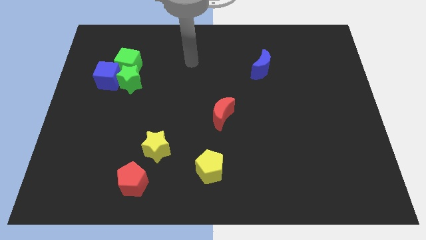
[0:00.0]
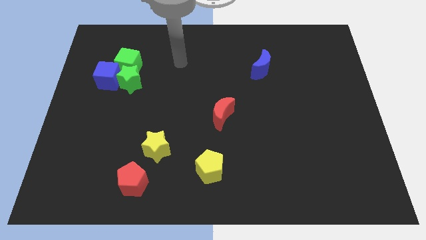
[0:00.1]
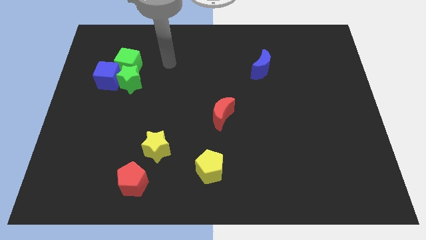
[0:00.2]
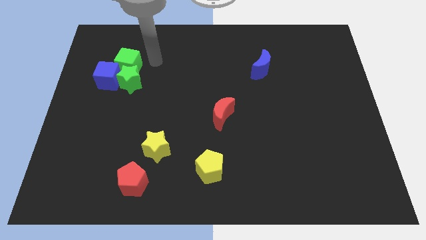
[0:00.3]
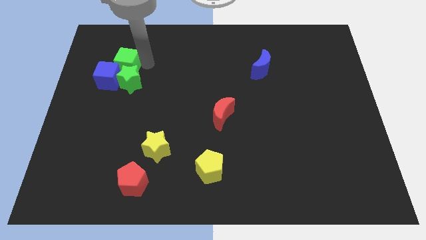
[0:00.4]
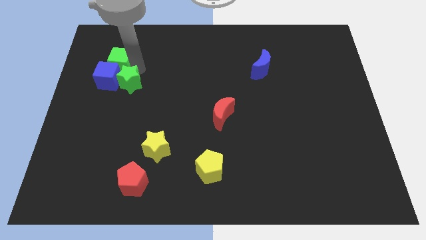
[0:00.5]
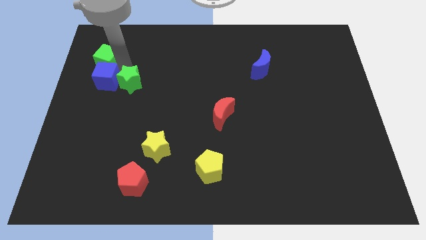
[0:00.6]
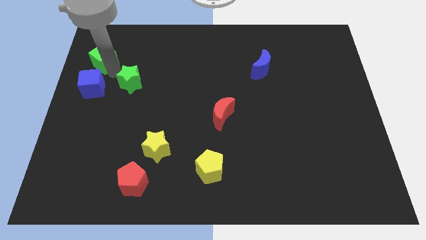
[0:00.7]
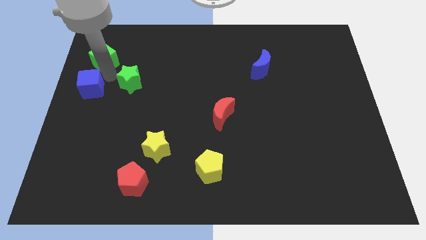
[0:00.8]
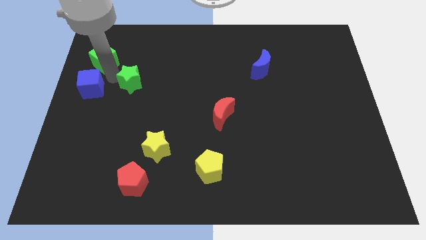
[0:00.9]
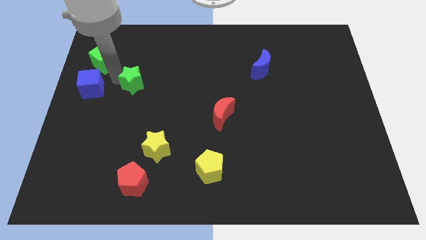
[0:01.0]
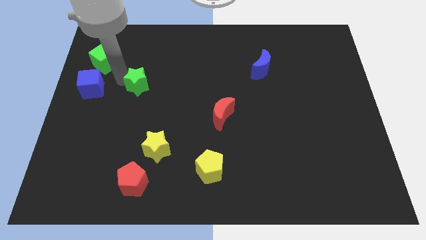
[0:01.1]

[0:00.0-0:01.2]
separate the green star from the green cube and blue cube

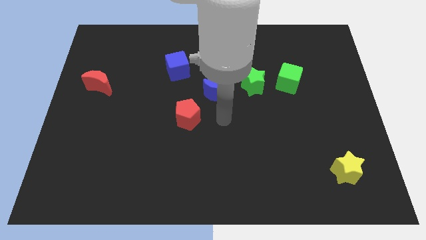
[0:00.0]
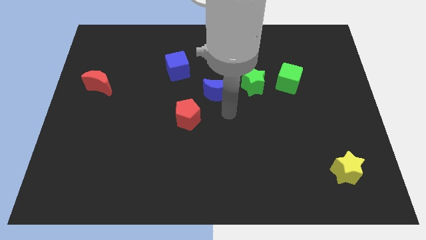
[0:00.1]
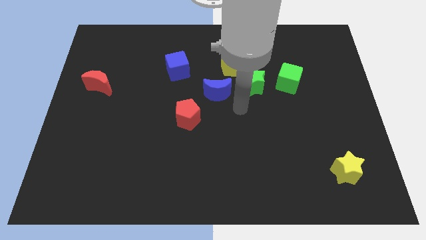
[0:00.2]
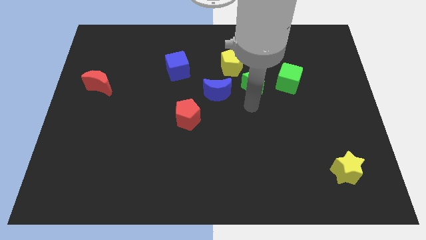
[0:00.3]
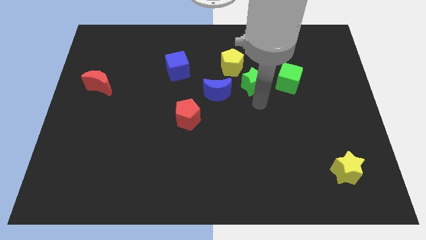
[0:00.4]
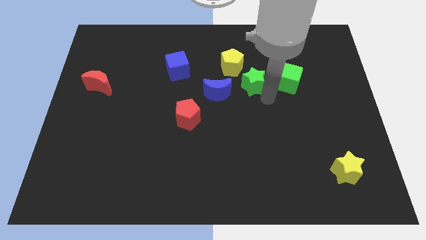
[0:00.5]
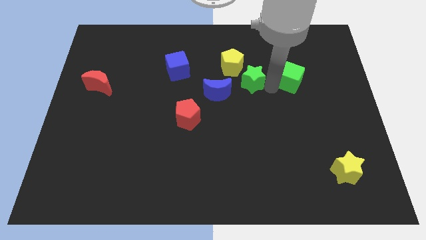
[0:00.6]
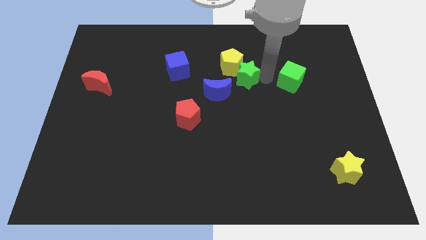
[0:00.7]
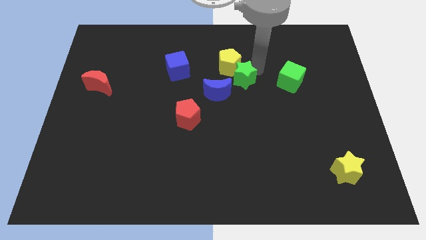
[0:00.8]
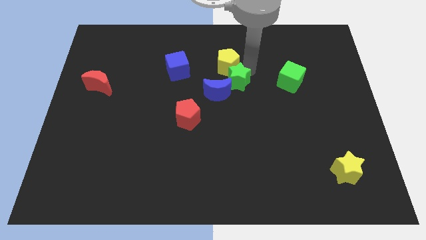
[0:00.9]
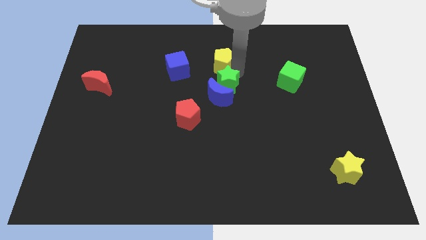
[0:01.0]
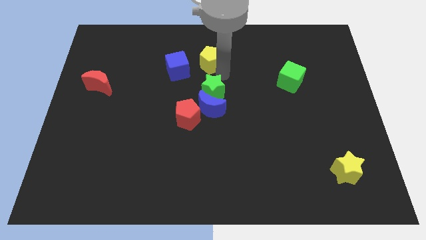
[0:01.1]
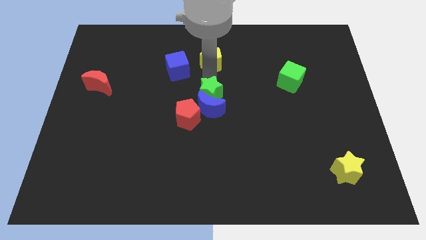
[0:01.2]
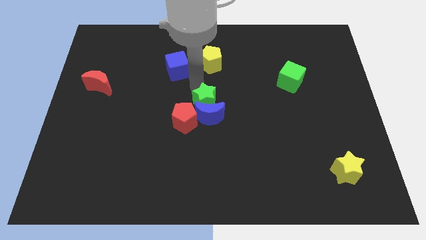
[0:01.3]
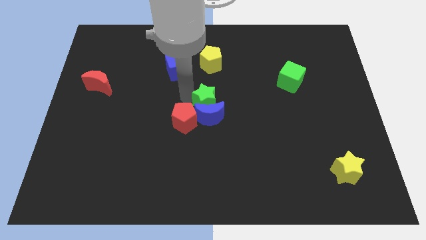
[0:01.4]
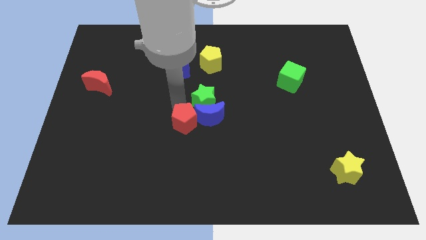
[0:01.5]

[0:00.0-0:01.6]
pull the green star apart from the yellow pentagon, green cube, and blue moon

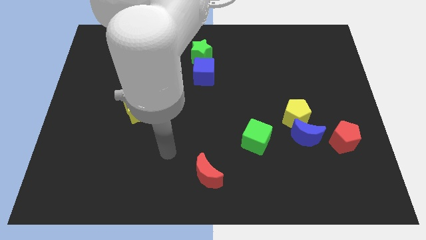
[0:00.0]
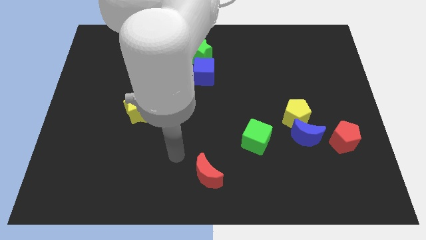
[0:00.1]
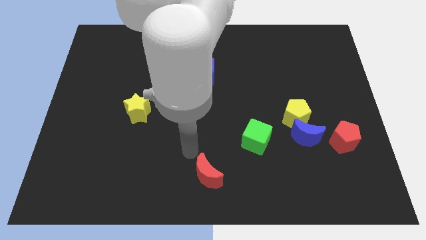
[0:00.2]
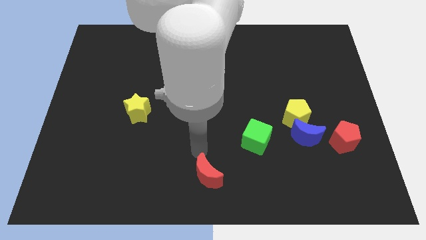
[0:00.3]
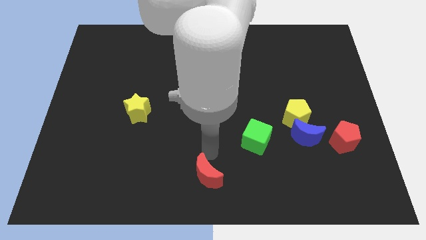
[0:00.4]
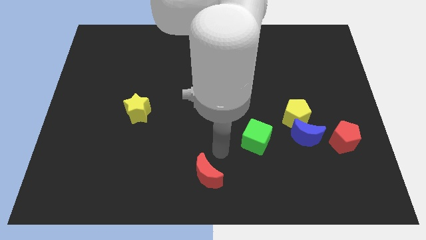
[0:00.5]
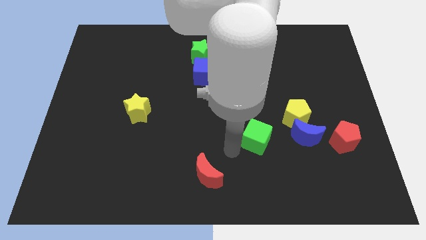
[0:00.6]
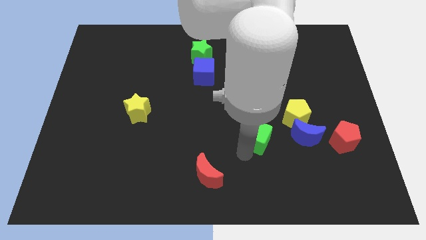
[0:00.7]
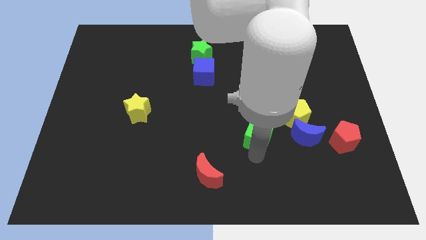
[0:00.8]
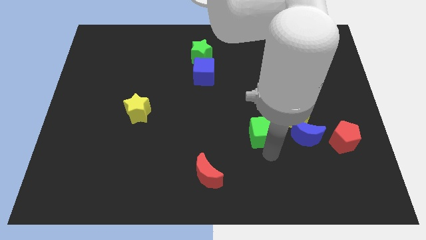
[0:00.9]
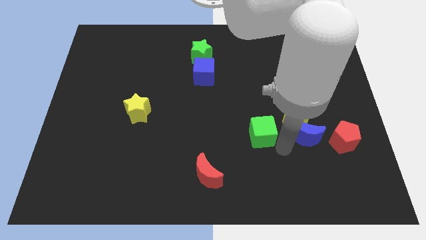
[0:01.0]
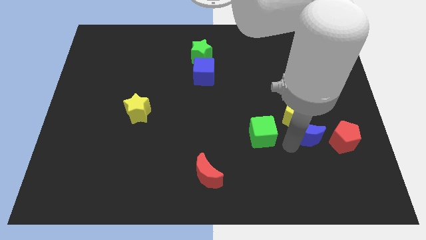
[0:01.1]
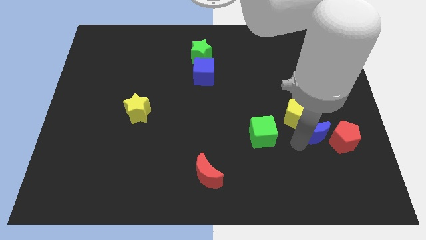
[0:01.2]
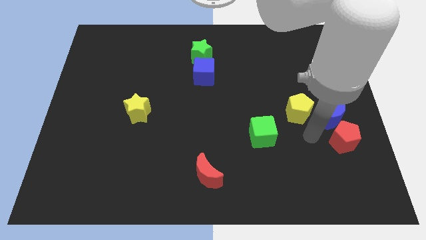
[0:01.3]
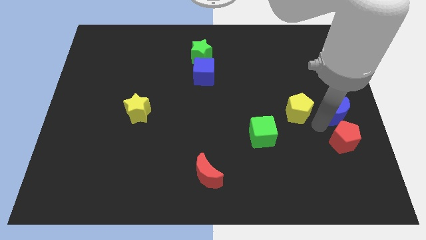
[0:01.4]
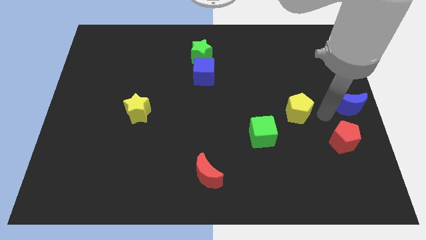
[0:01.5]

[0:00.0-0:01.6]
move the yellow pentagon away from the blue moon

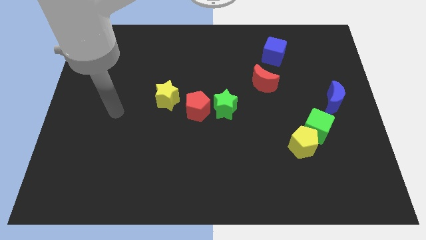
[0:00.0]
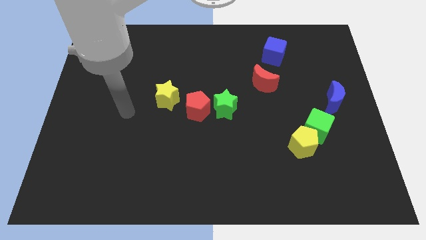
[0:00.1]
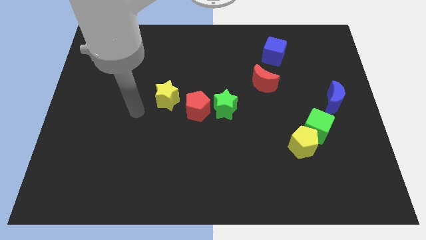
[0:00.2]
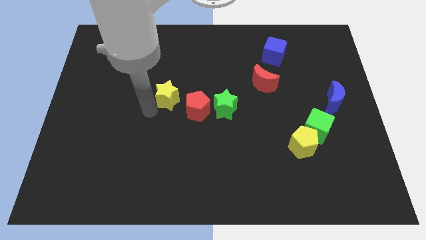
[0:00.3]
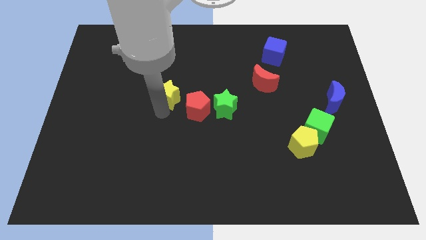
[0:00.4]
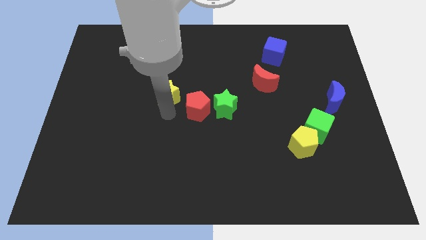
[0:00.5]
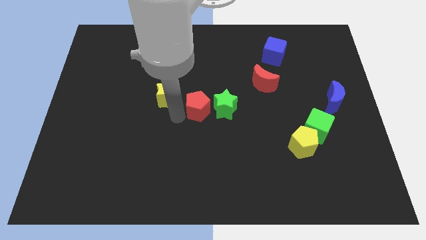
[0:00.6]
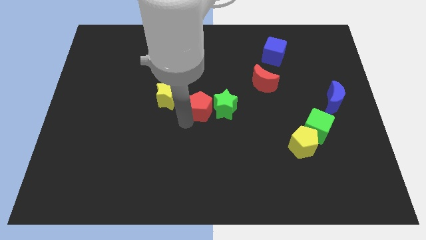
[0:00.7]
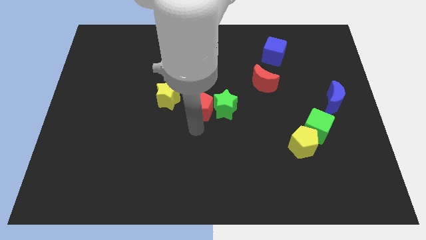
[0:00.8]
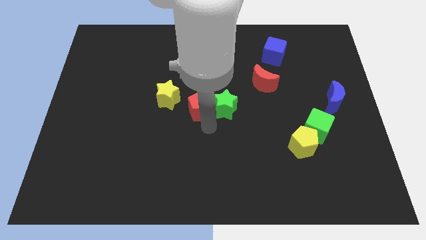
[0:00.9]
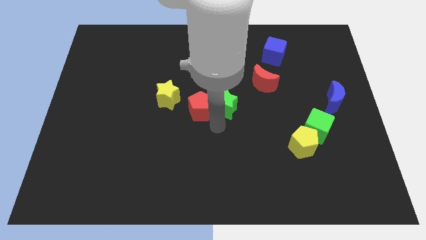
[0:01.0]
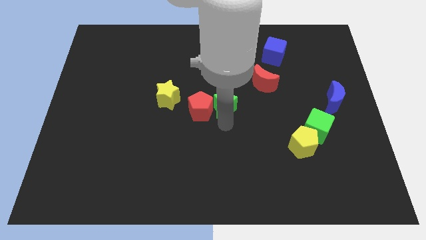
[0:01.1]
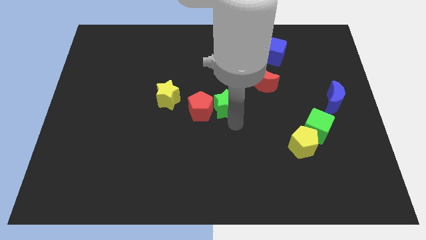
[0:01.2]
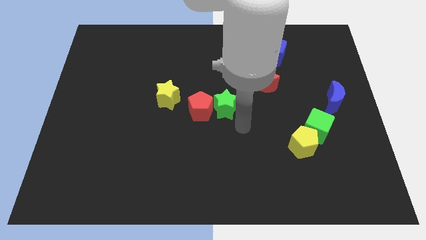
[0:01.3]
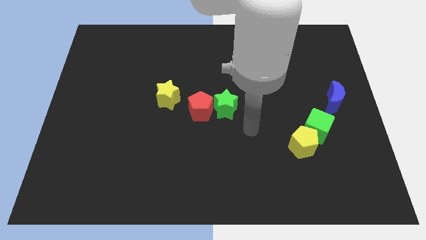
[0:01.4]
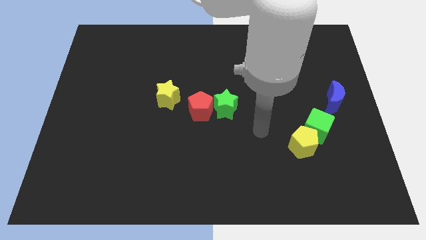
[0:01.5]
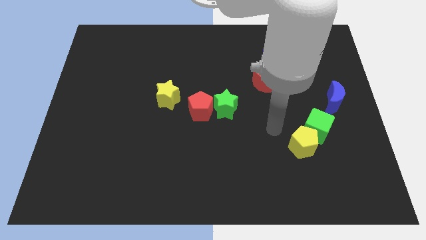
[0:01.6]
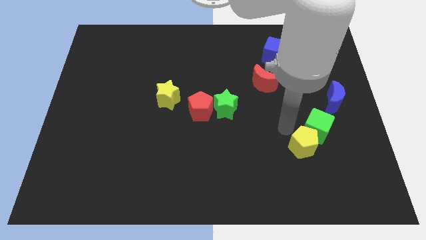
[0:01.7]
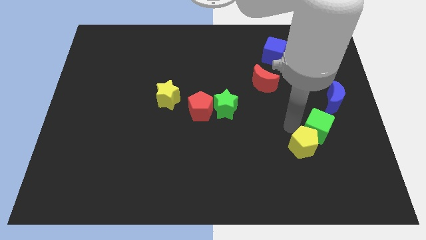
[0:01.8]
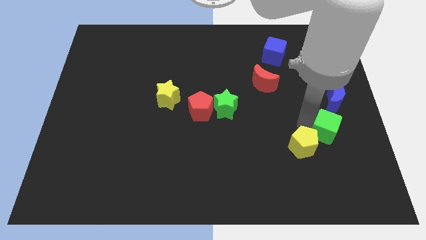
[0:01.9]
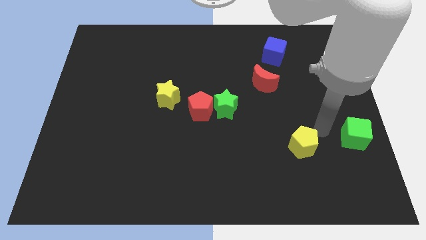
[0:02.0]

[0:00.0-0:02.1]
separate the yellow pentagon from the green cube

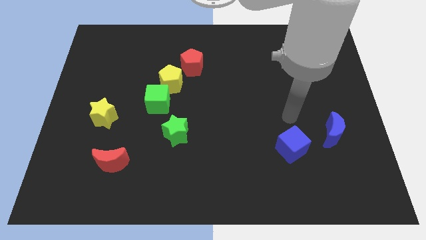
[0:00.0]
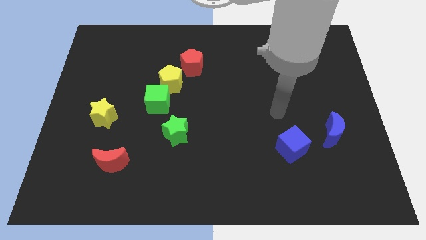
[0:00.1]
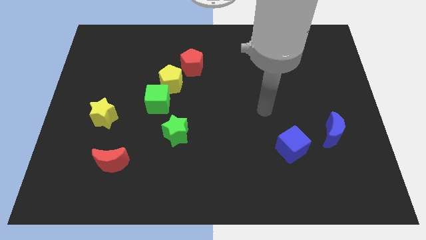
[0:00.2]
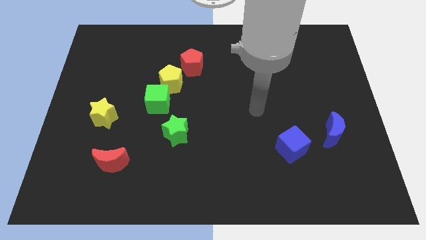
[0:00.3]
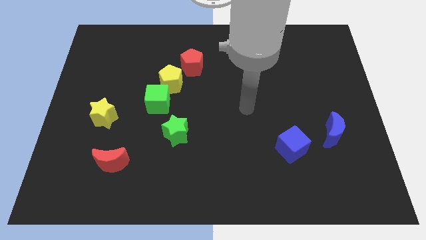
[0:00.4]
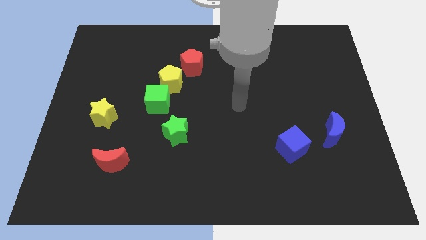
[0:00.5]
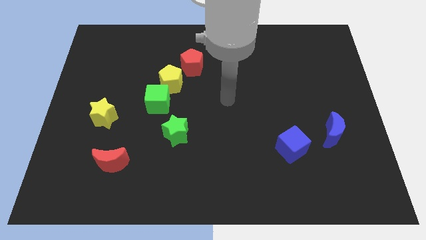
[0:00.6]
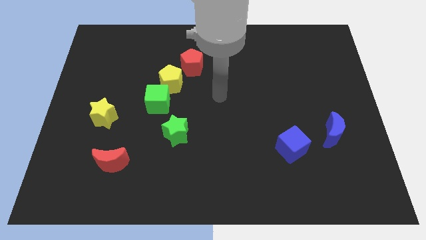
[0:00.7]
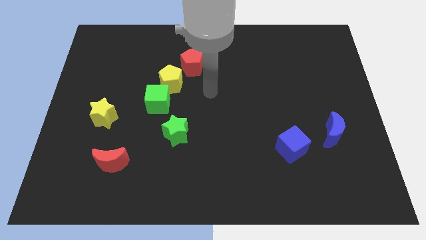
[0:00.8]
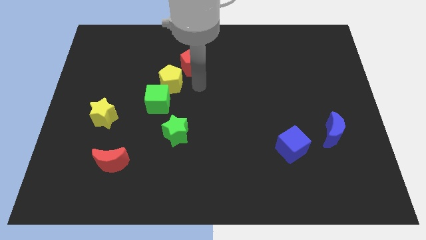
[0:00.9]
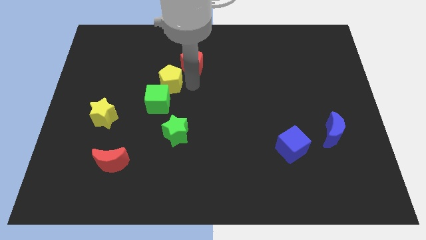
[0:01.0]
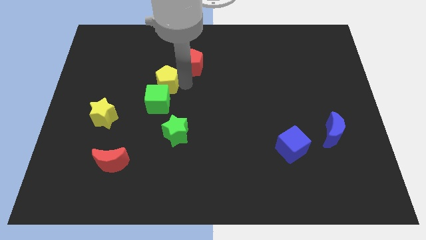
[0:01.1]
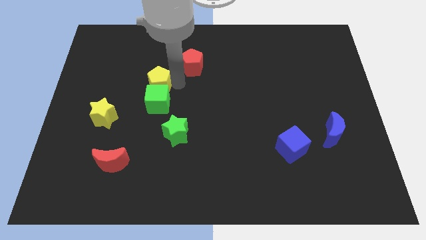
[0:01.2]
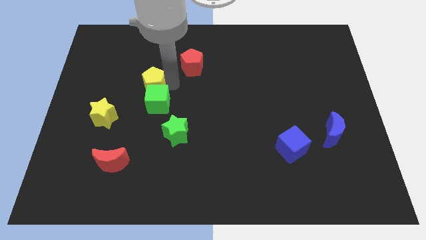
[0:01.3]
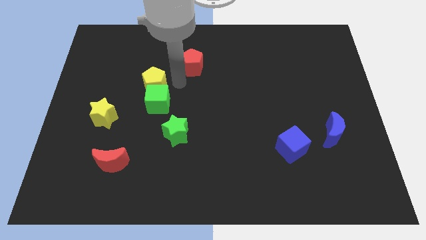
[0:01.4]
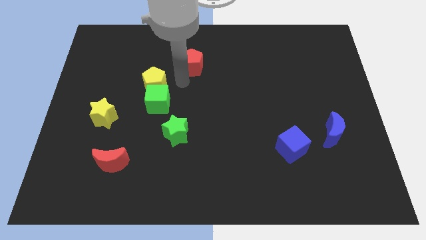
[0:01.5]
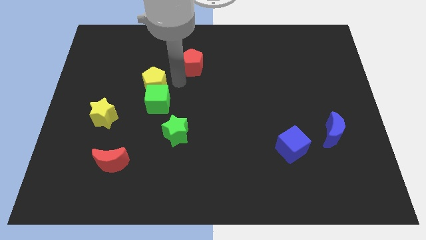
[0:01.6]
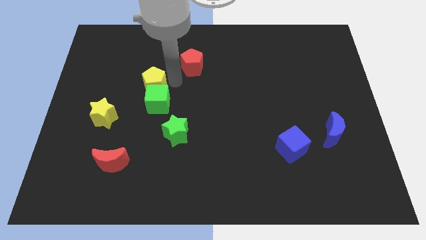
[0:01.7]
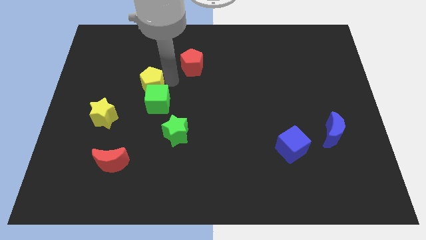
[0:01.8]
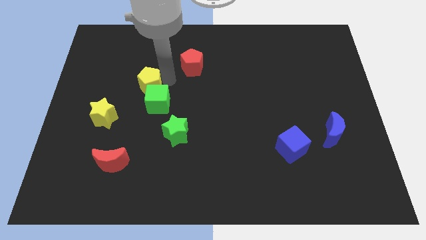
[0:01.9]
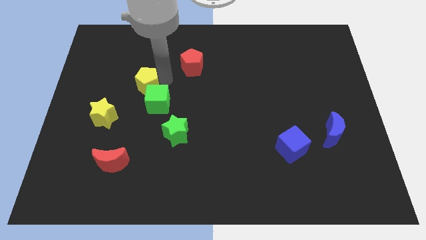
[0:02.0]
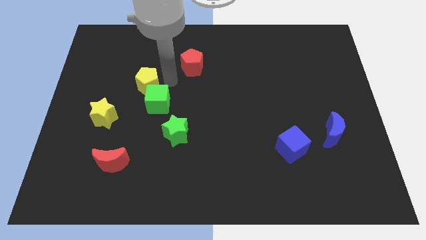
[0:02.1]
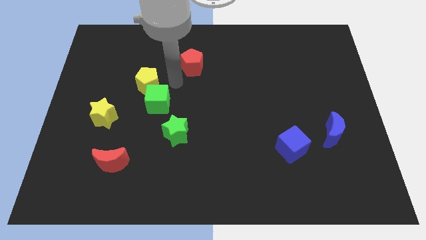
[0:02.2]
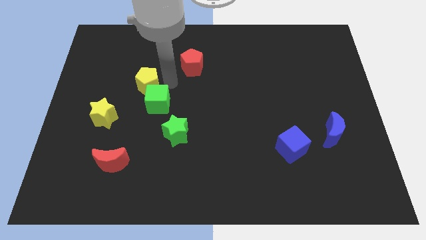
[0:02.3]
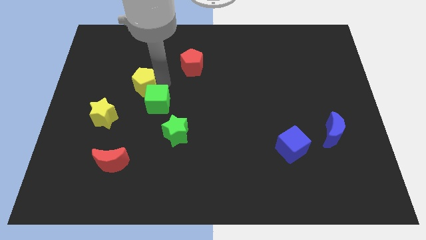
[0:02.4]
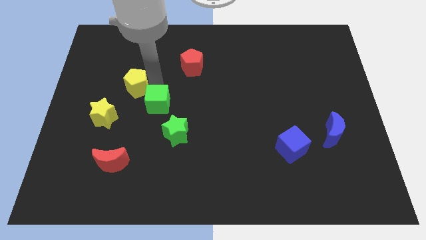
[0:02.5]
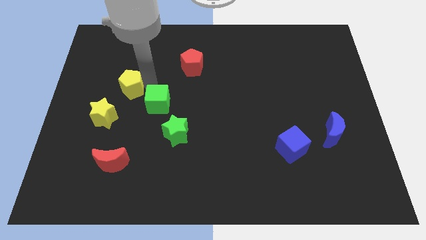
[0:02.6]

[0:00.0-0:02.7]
separate the yellow pentagon from the green cube and red pentagon
